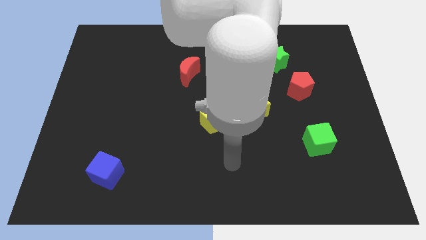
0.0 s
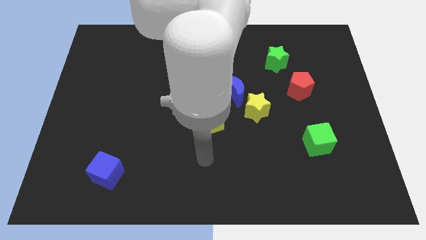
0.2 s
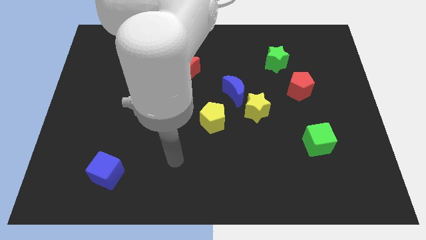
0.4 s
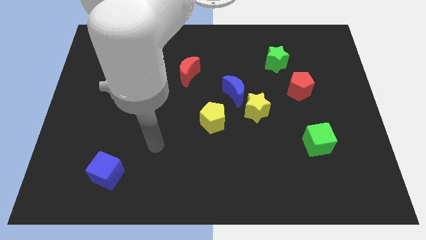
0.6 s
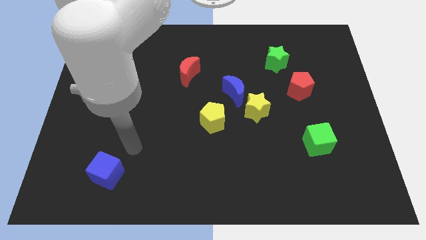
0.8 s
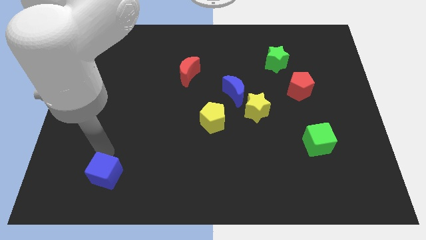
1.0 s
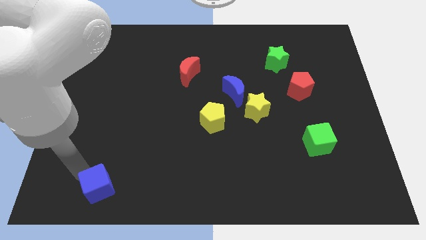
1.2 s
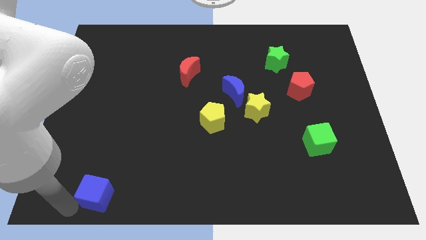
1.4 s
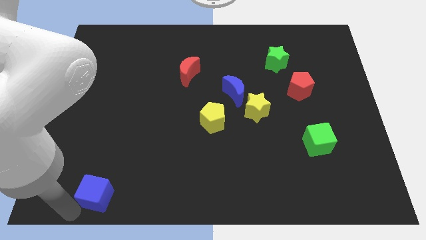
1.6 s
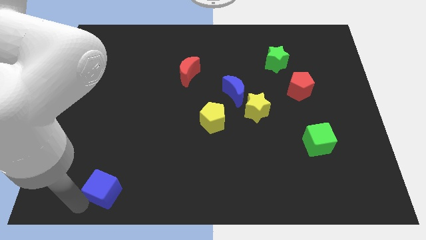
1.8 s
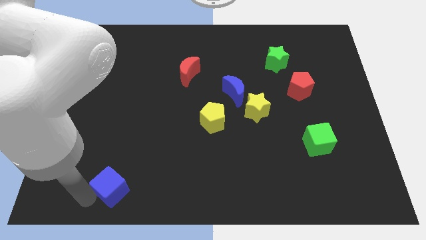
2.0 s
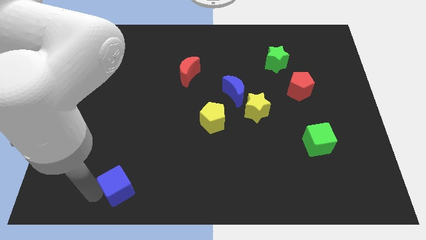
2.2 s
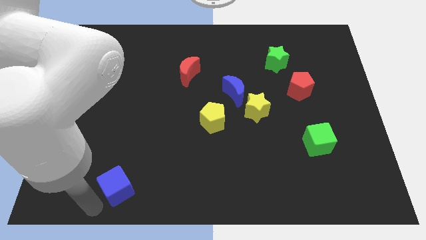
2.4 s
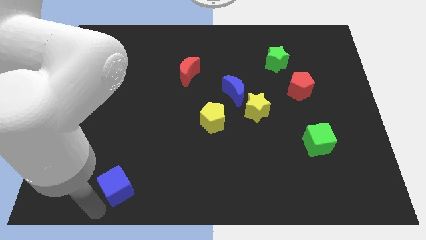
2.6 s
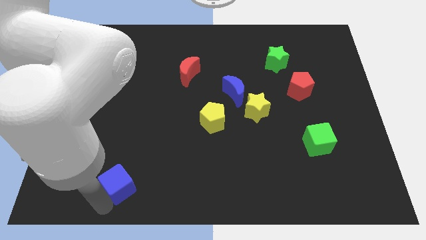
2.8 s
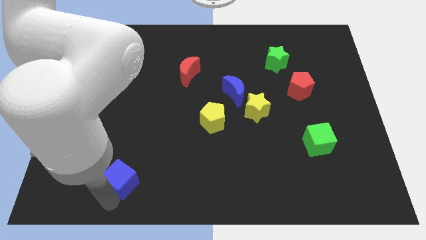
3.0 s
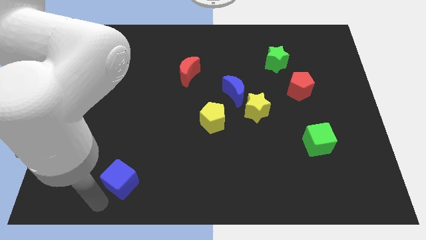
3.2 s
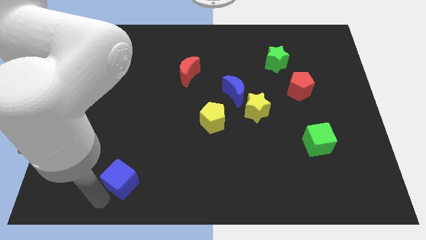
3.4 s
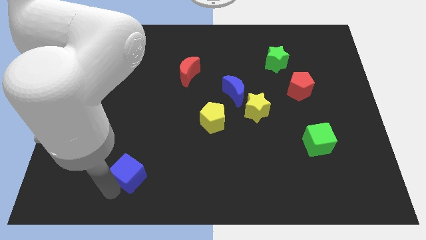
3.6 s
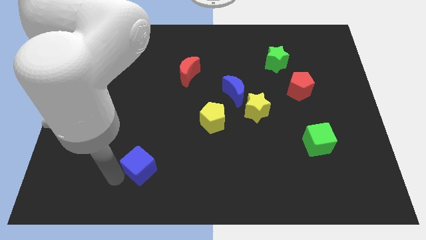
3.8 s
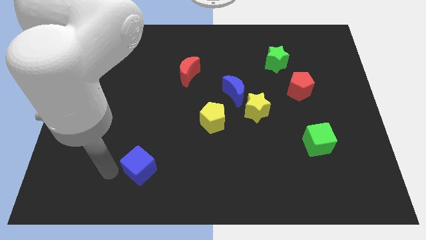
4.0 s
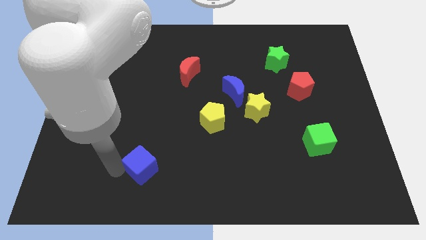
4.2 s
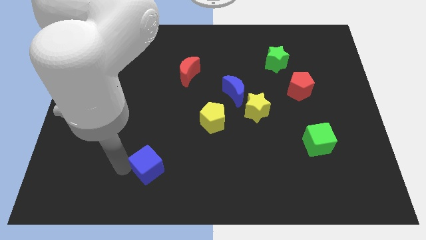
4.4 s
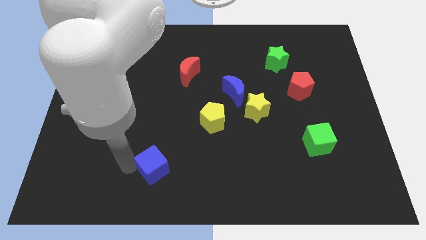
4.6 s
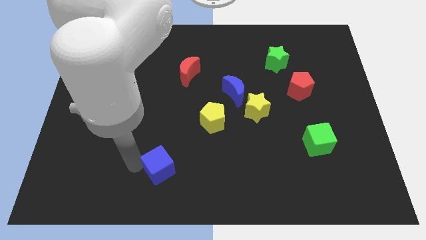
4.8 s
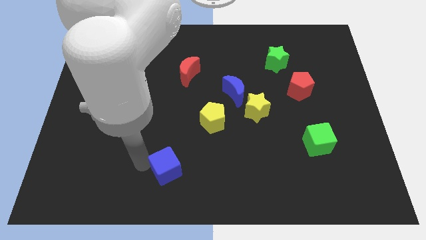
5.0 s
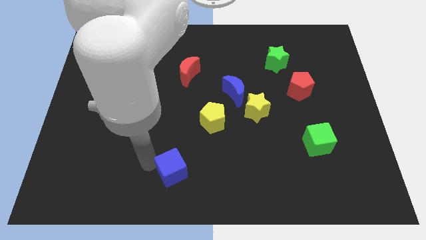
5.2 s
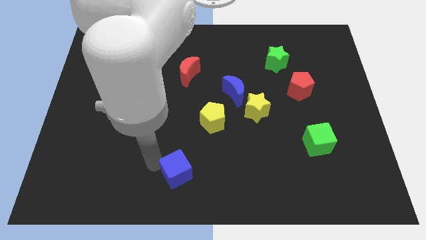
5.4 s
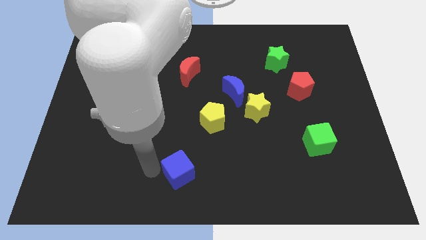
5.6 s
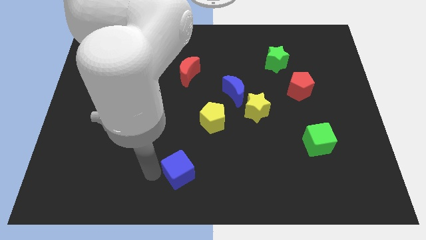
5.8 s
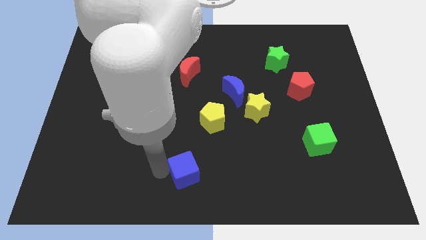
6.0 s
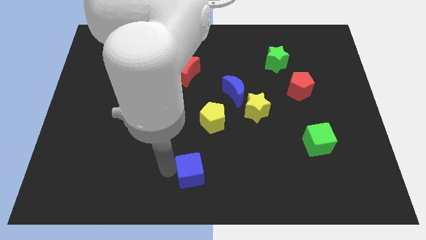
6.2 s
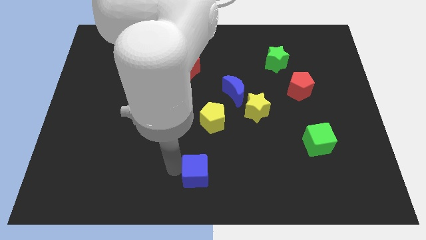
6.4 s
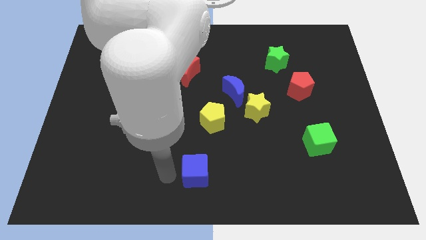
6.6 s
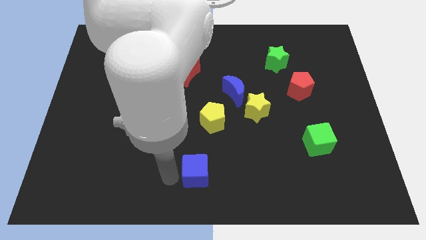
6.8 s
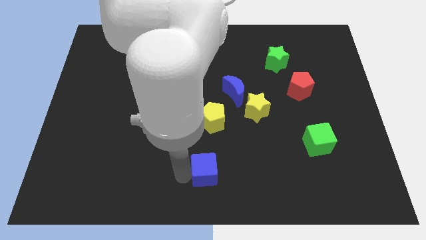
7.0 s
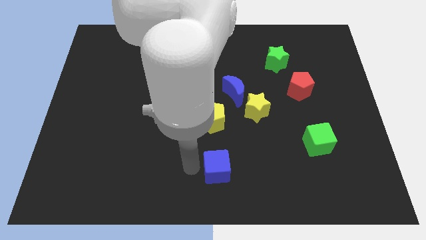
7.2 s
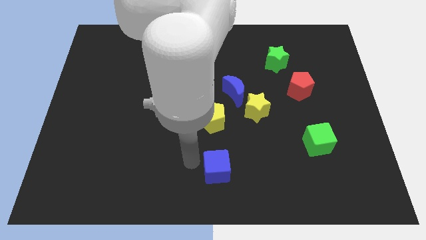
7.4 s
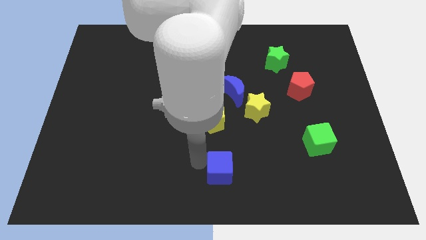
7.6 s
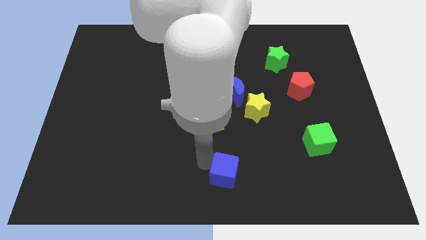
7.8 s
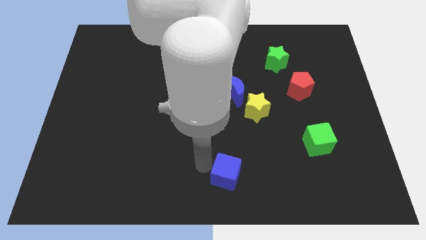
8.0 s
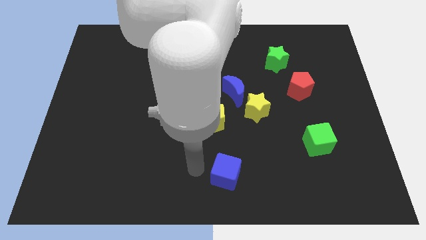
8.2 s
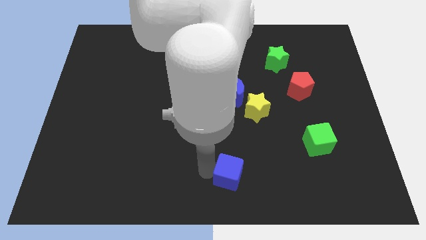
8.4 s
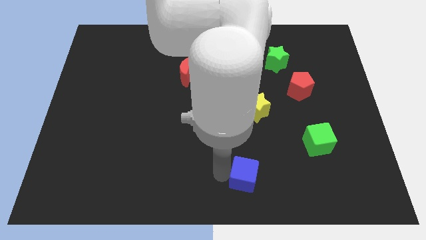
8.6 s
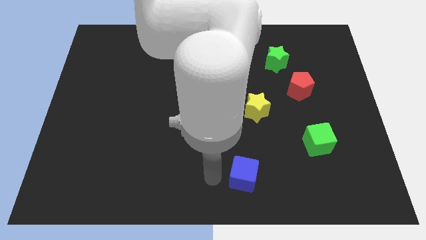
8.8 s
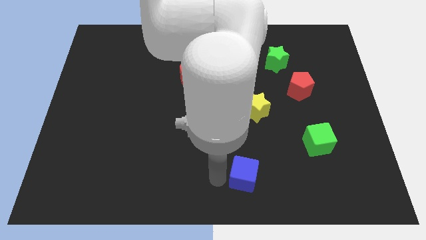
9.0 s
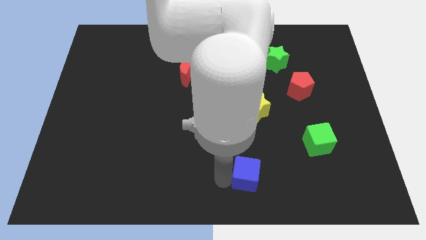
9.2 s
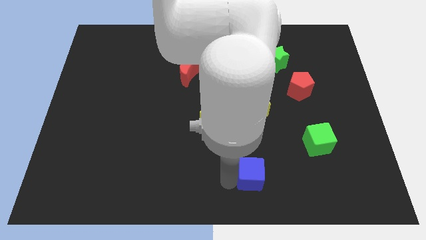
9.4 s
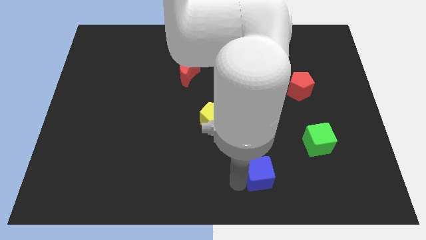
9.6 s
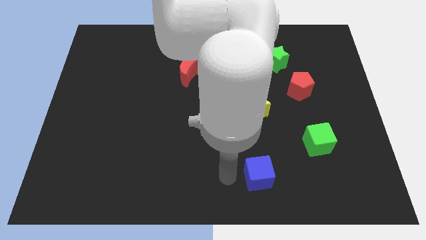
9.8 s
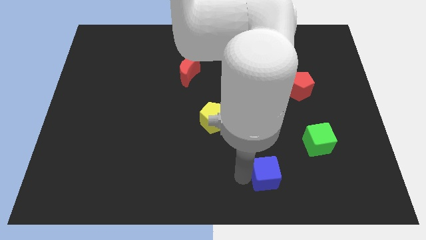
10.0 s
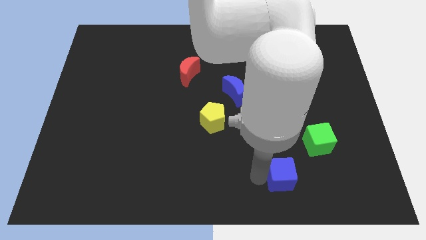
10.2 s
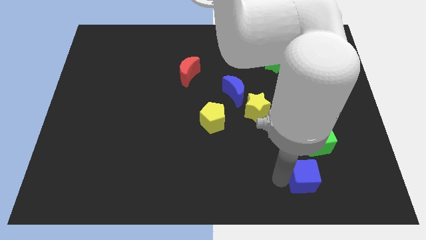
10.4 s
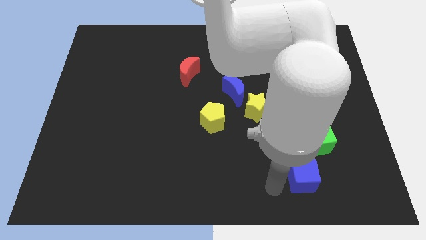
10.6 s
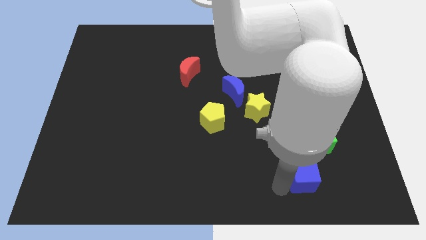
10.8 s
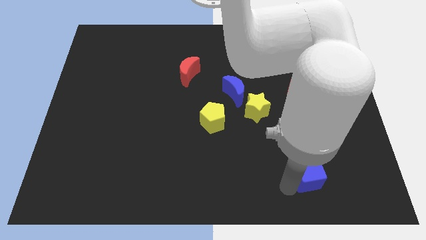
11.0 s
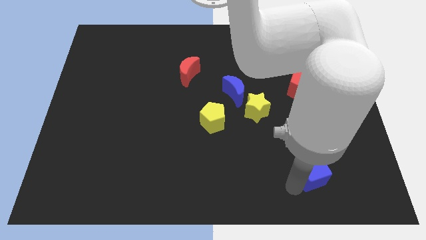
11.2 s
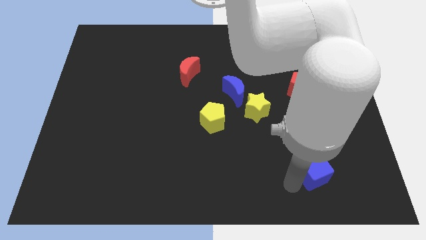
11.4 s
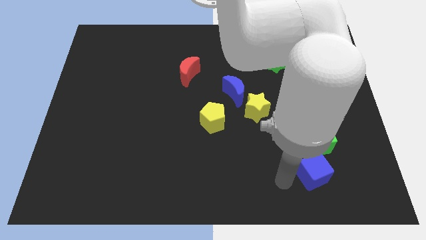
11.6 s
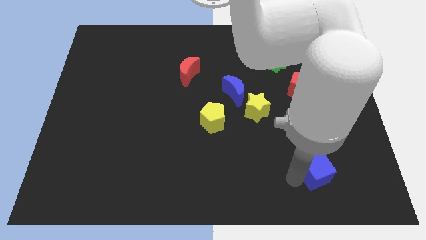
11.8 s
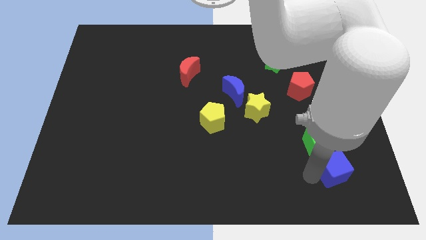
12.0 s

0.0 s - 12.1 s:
move the blue cube diagonally down and to the right of the green cube

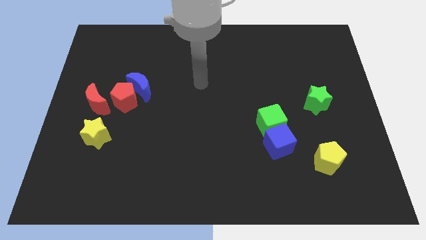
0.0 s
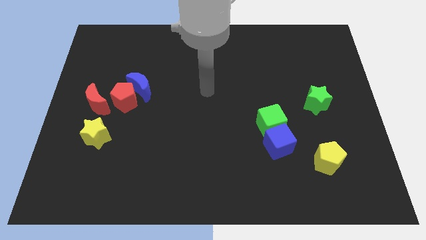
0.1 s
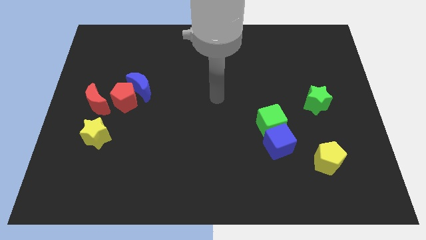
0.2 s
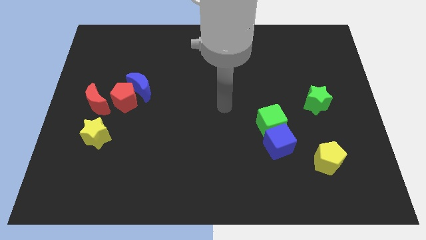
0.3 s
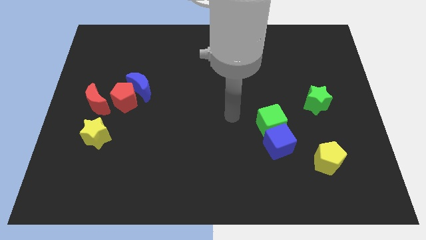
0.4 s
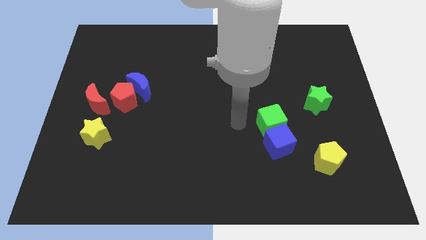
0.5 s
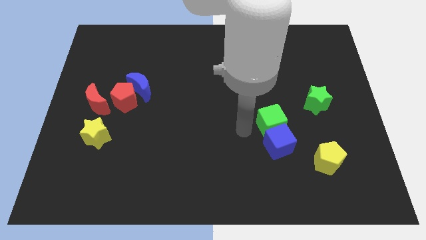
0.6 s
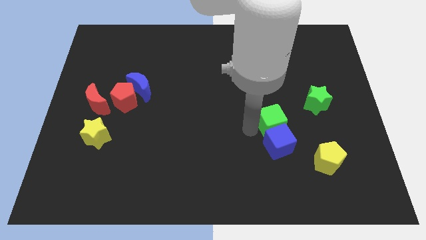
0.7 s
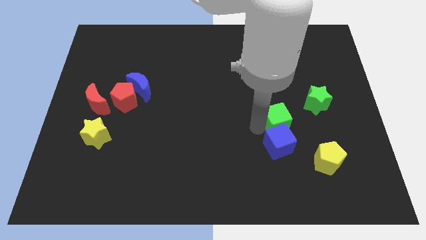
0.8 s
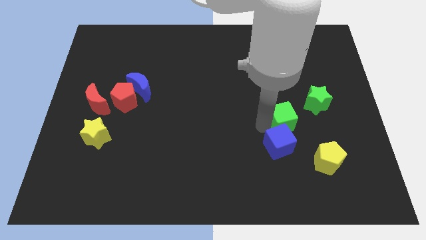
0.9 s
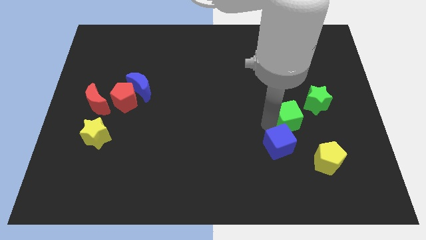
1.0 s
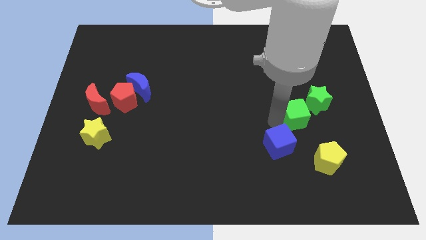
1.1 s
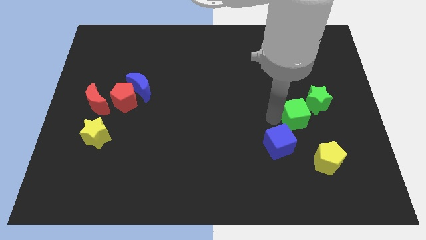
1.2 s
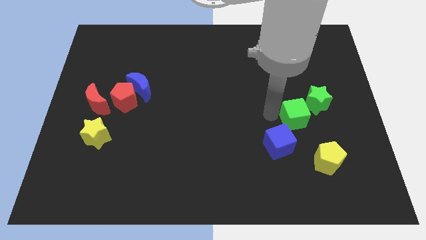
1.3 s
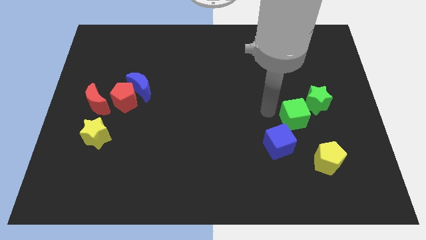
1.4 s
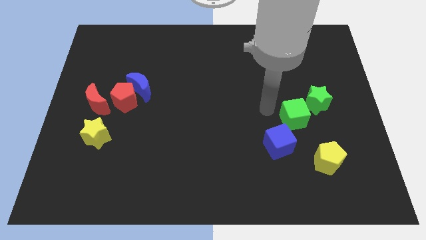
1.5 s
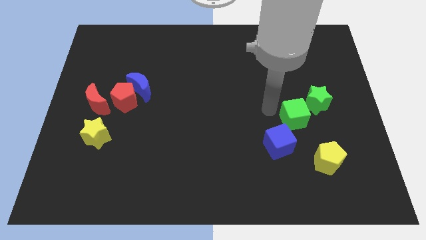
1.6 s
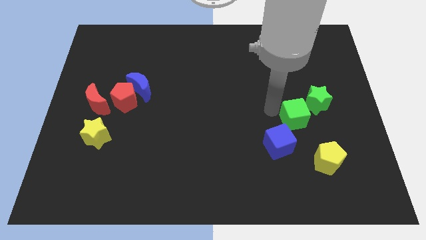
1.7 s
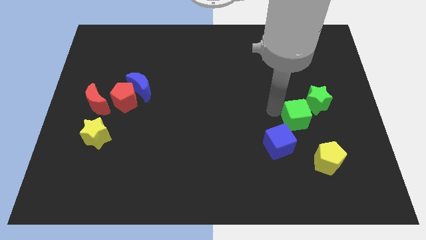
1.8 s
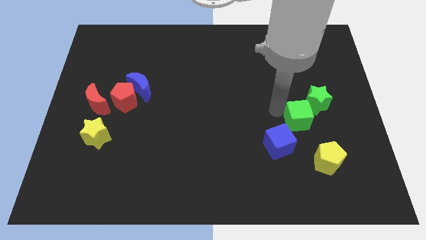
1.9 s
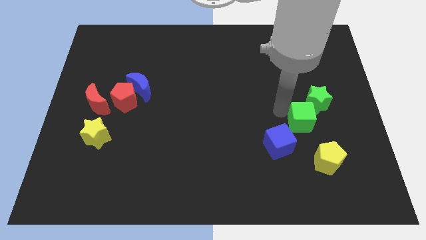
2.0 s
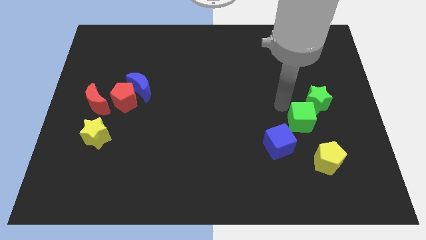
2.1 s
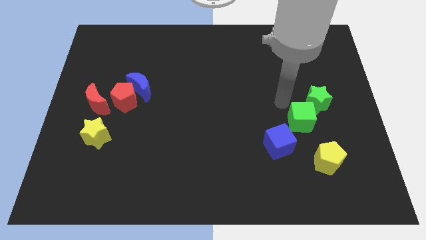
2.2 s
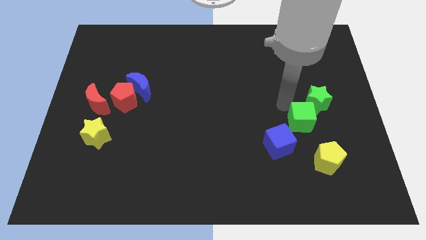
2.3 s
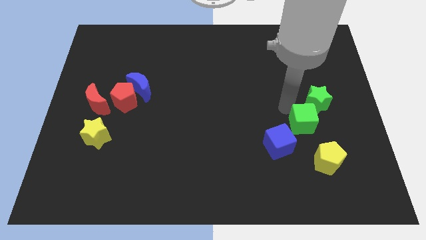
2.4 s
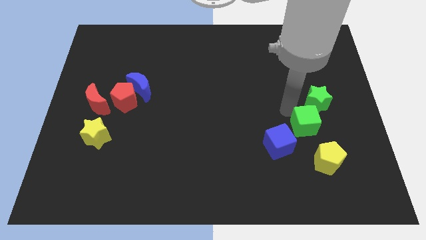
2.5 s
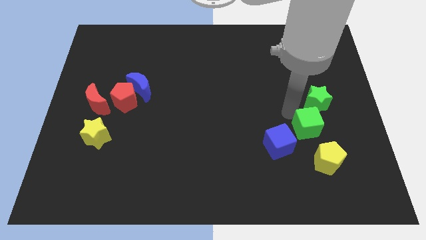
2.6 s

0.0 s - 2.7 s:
put the green cube to the right of the blue cube
